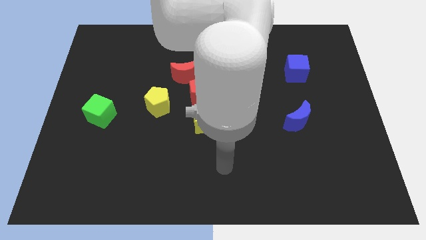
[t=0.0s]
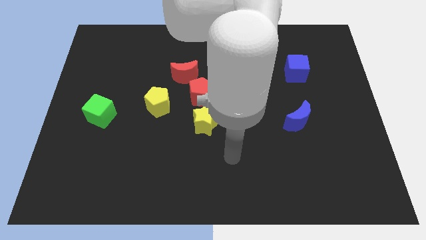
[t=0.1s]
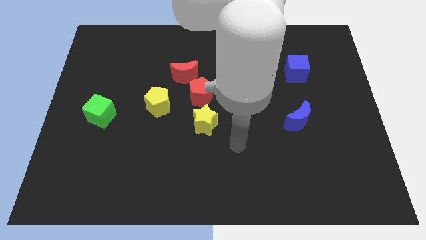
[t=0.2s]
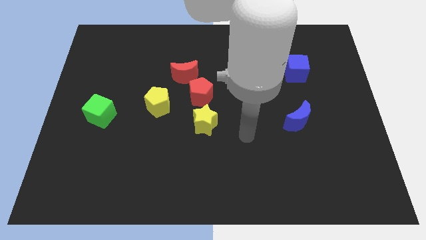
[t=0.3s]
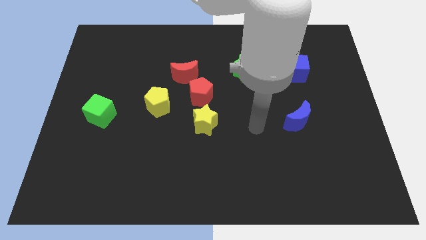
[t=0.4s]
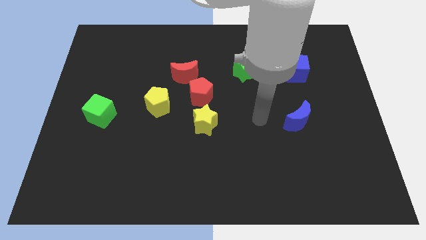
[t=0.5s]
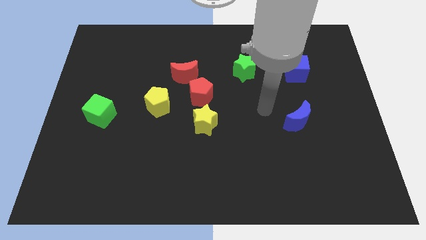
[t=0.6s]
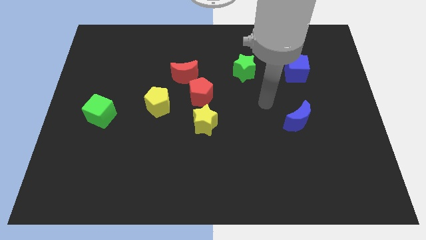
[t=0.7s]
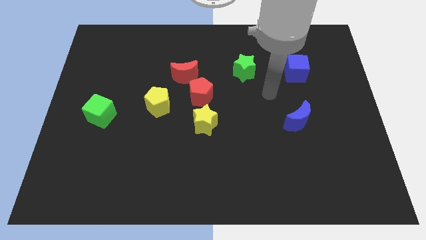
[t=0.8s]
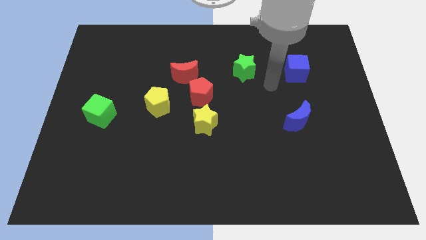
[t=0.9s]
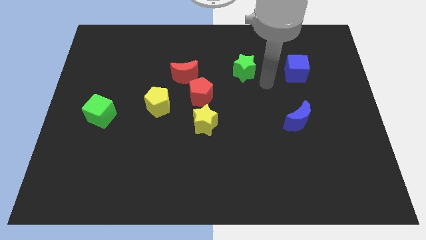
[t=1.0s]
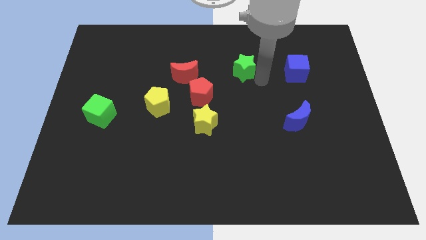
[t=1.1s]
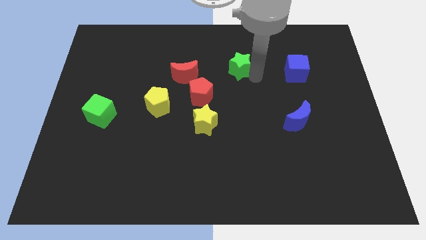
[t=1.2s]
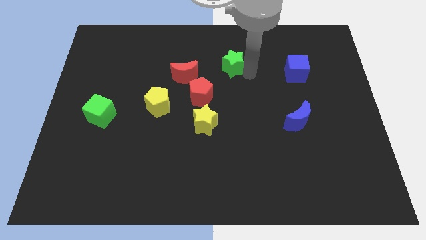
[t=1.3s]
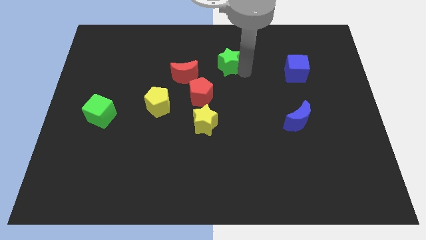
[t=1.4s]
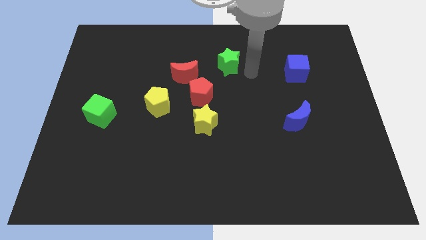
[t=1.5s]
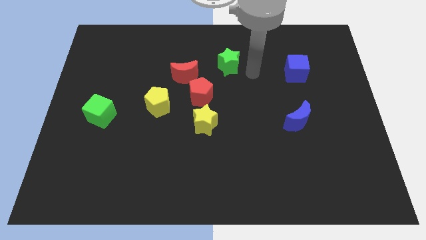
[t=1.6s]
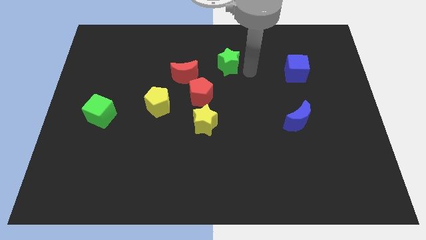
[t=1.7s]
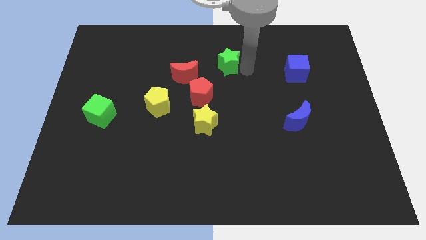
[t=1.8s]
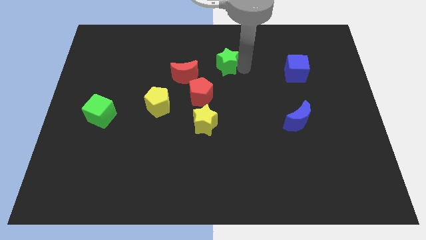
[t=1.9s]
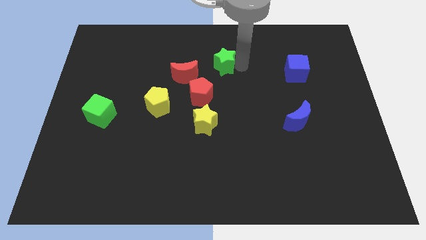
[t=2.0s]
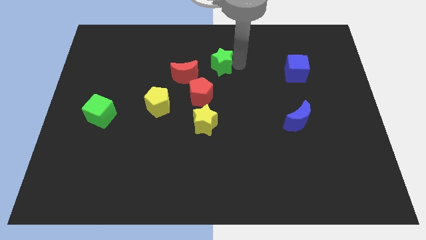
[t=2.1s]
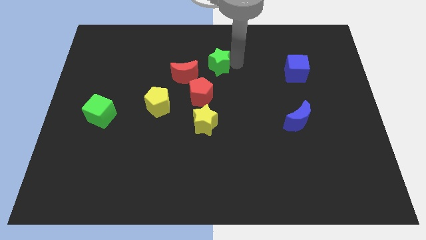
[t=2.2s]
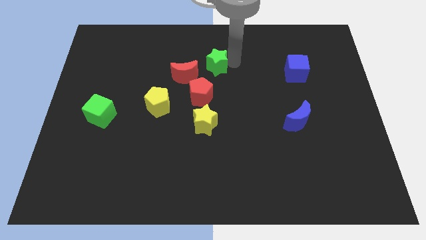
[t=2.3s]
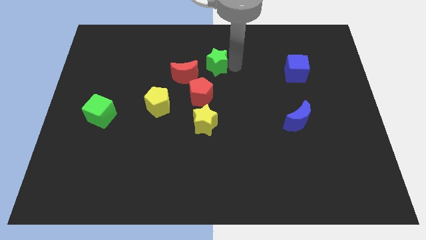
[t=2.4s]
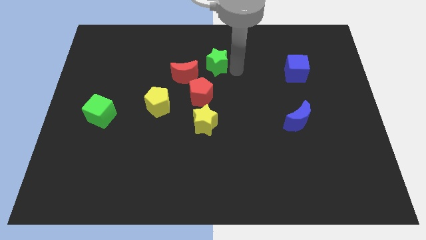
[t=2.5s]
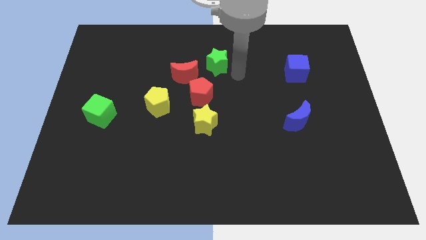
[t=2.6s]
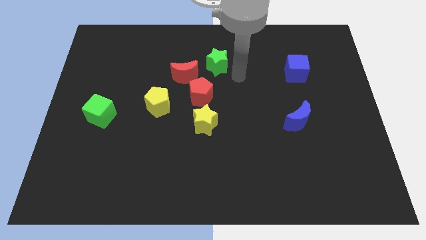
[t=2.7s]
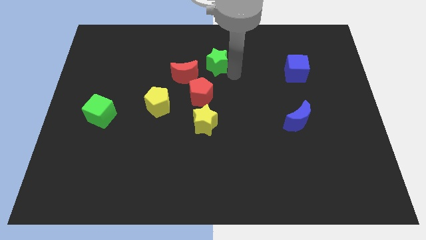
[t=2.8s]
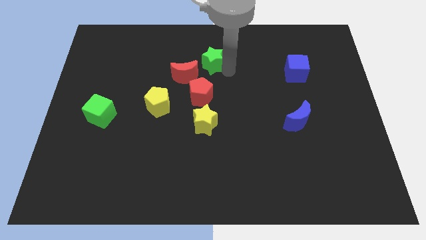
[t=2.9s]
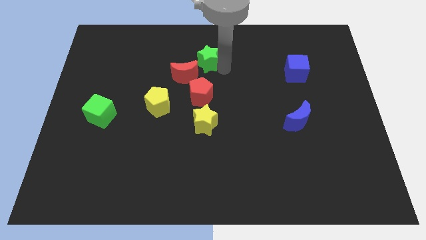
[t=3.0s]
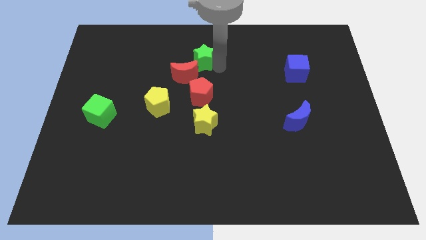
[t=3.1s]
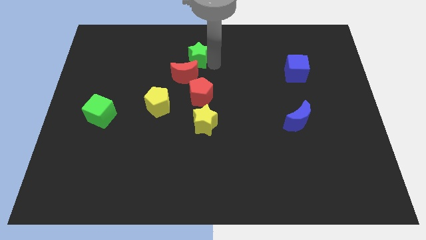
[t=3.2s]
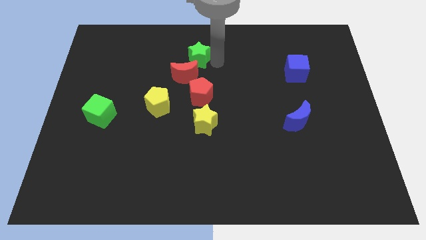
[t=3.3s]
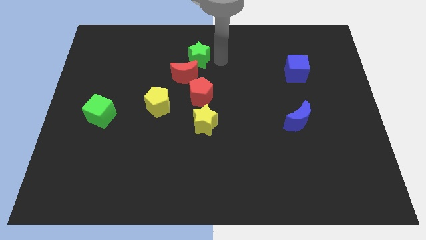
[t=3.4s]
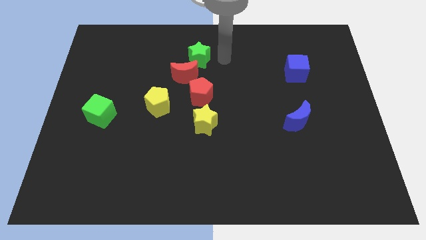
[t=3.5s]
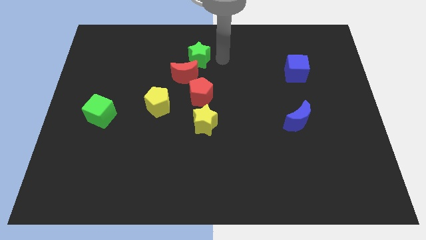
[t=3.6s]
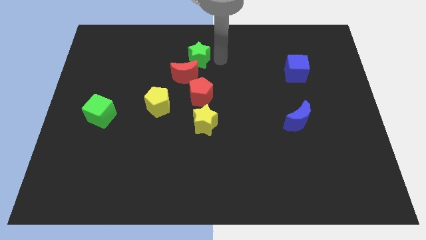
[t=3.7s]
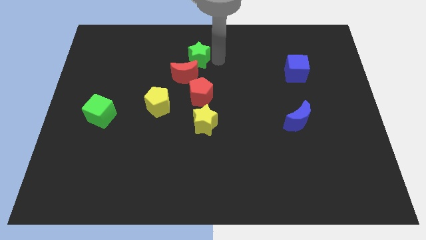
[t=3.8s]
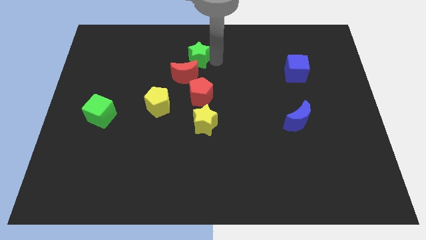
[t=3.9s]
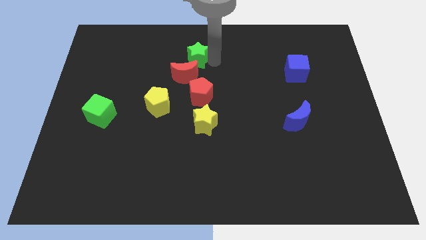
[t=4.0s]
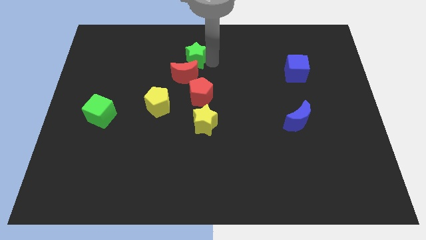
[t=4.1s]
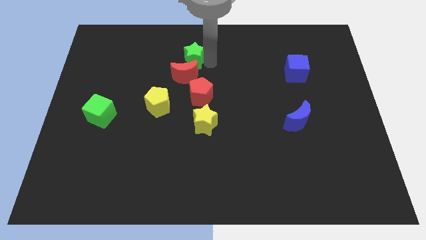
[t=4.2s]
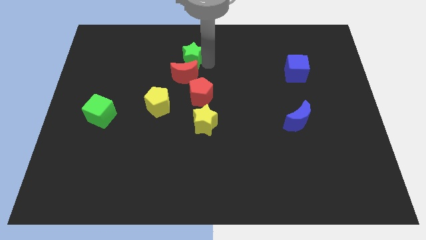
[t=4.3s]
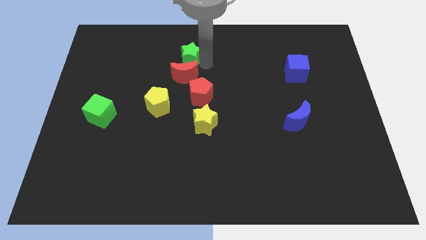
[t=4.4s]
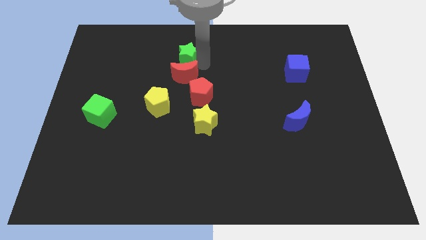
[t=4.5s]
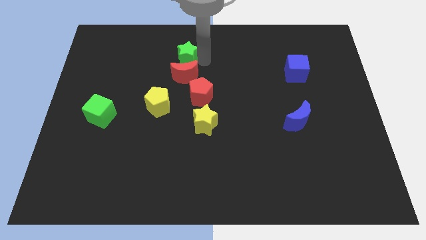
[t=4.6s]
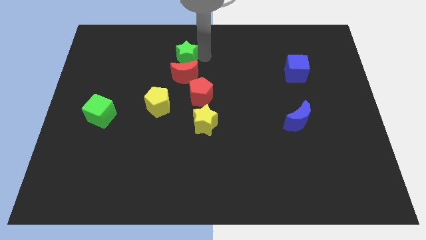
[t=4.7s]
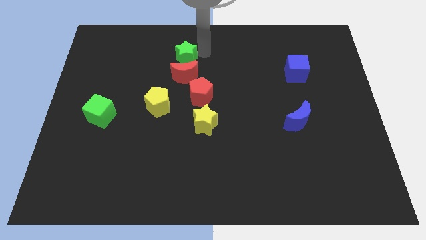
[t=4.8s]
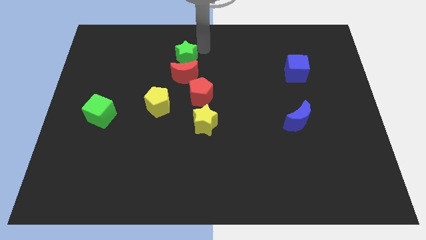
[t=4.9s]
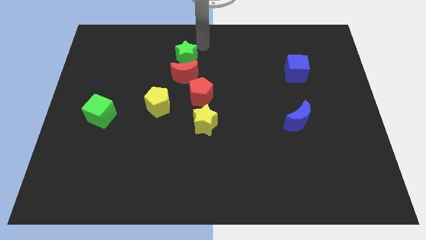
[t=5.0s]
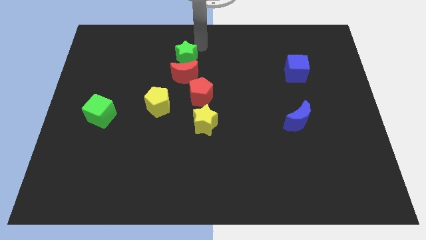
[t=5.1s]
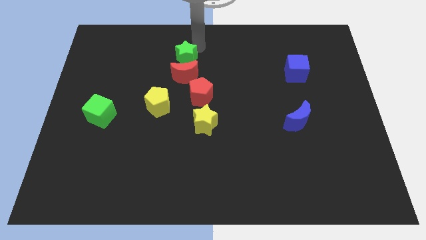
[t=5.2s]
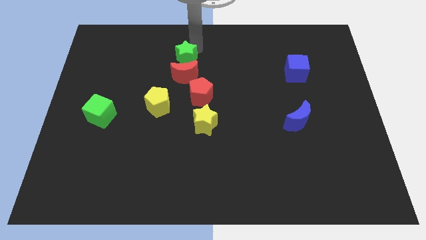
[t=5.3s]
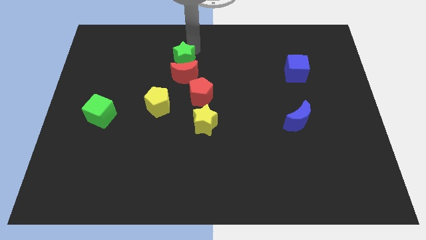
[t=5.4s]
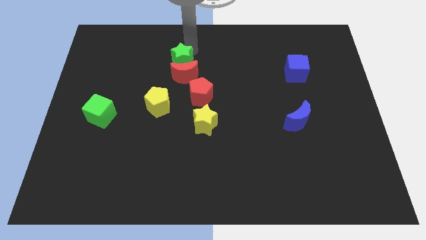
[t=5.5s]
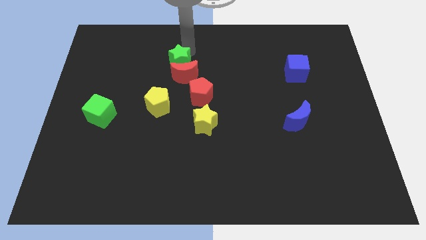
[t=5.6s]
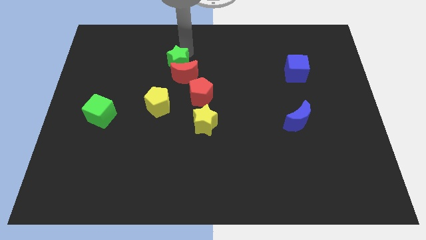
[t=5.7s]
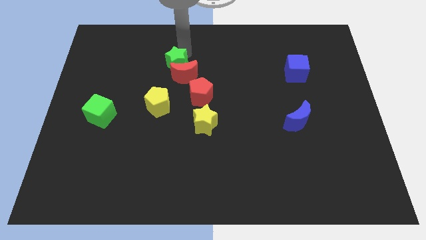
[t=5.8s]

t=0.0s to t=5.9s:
slide the green star to the top left of the red pentagon
